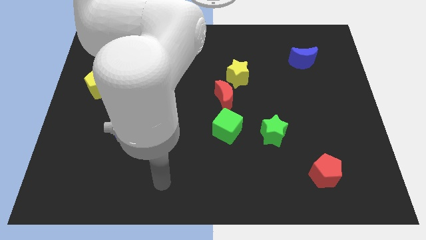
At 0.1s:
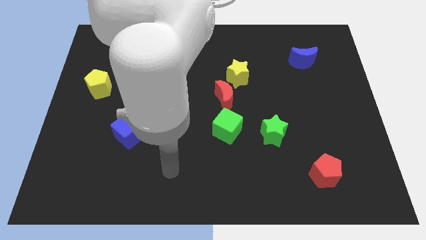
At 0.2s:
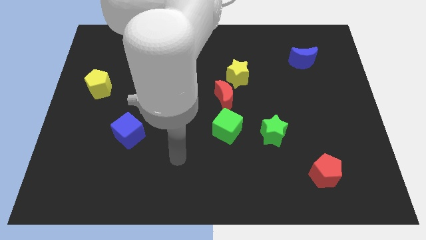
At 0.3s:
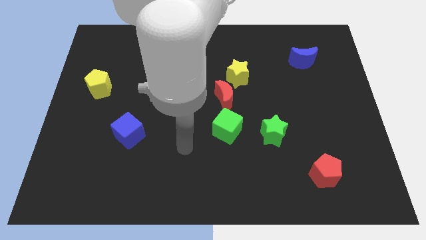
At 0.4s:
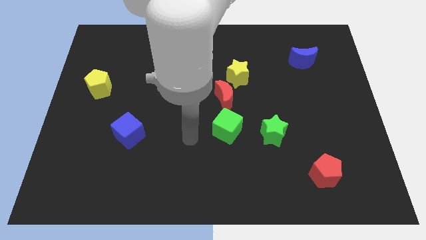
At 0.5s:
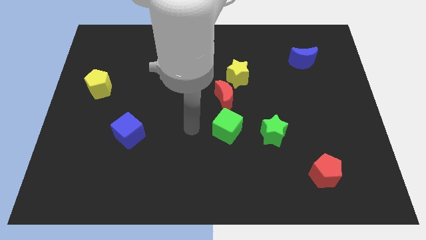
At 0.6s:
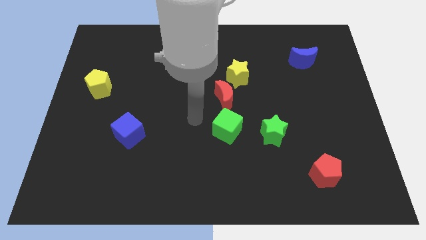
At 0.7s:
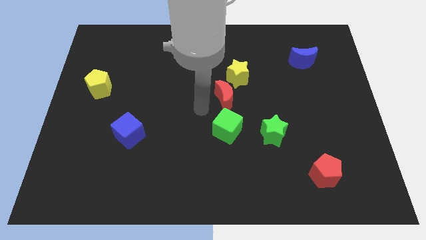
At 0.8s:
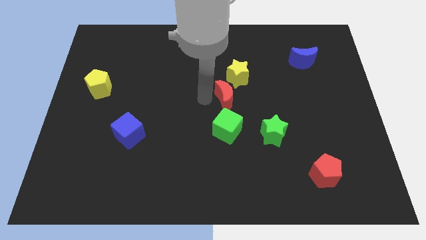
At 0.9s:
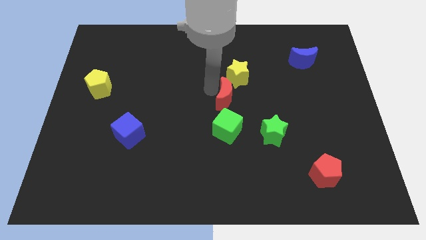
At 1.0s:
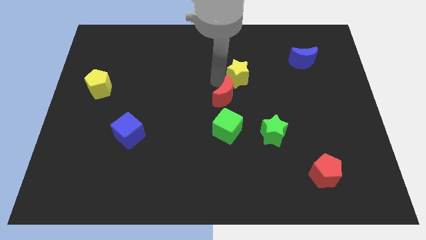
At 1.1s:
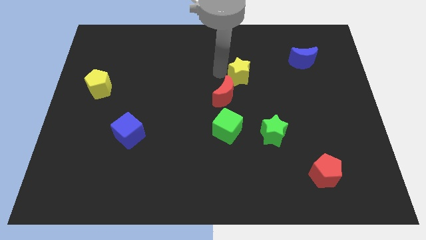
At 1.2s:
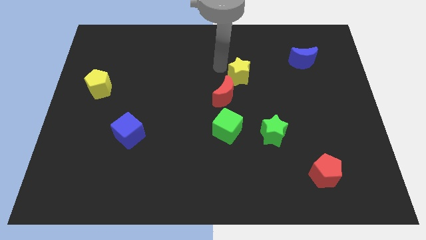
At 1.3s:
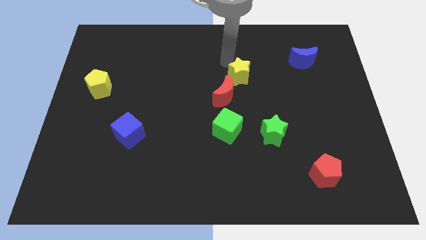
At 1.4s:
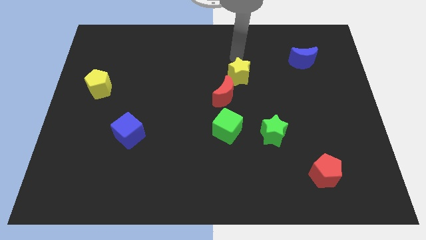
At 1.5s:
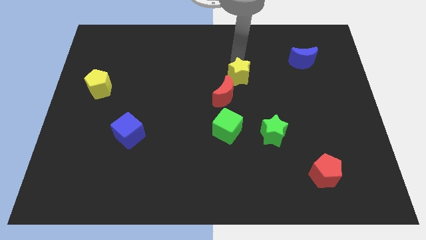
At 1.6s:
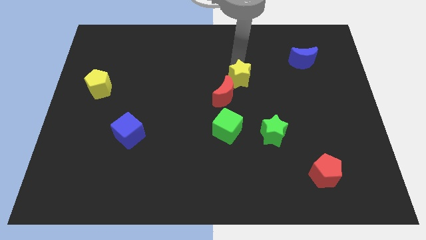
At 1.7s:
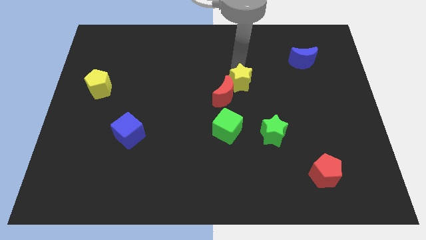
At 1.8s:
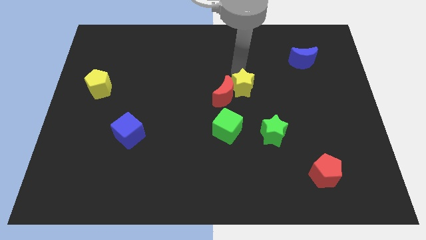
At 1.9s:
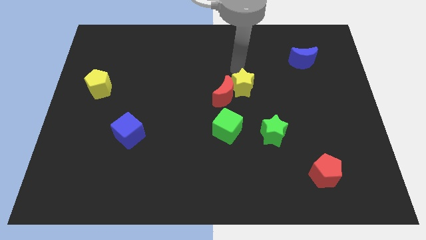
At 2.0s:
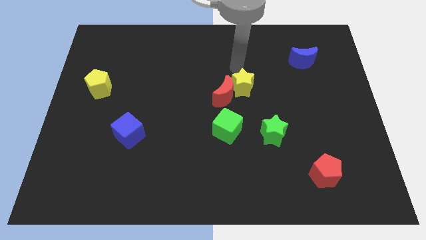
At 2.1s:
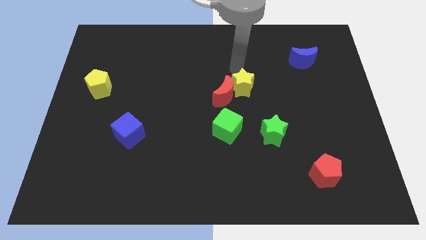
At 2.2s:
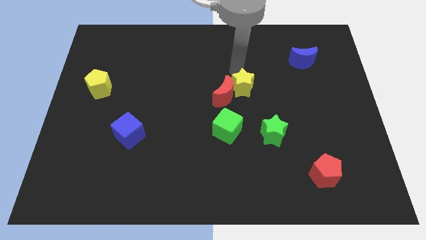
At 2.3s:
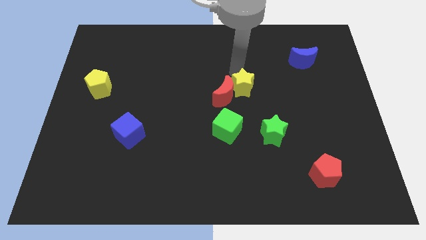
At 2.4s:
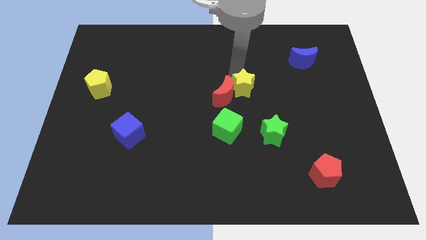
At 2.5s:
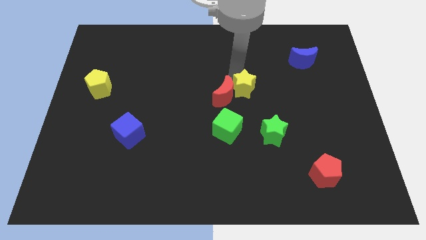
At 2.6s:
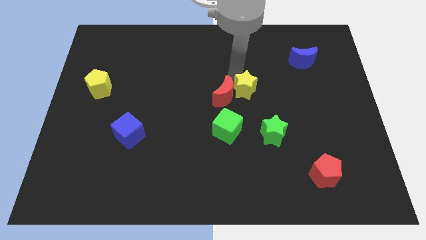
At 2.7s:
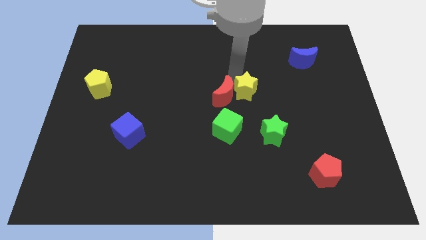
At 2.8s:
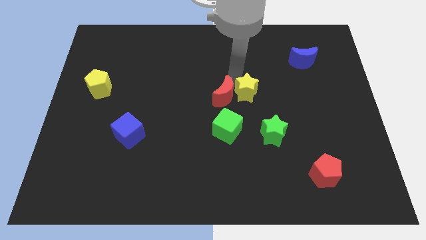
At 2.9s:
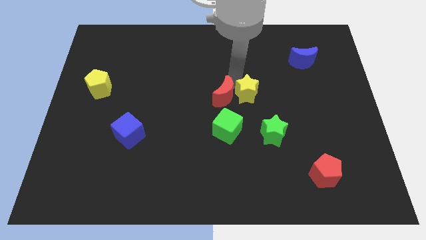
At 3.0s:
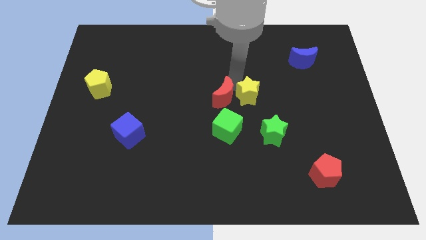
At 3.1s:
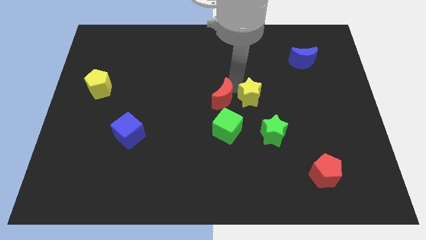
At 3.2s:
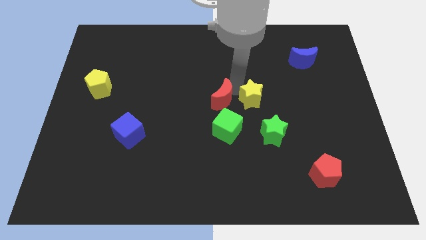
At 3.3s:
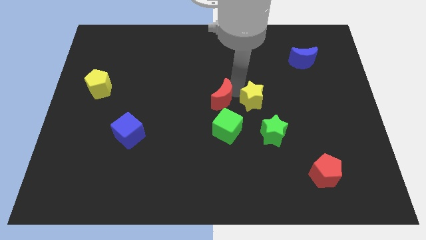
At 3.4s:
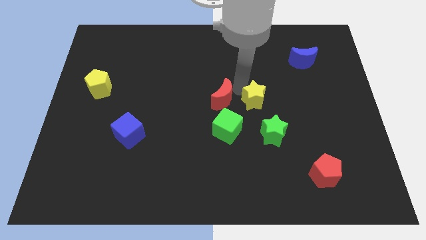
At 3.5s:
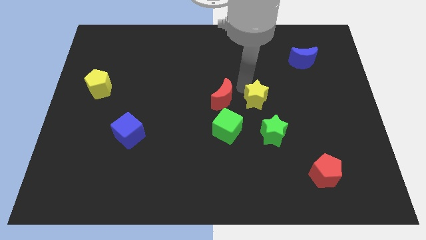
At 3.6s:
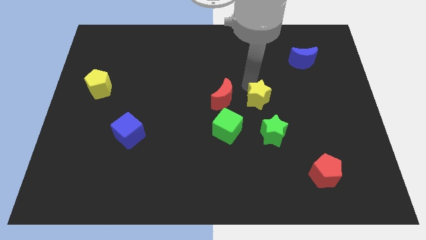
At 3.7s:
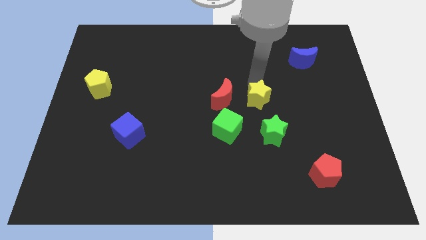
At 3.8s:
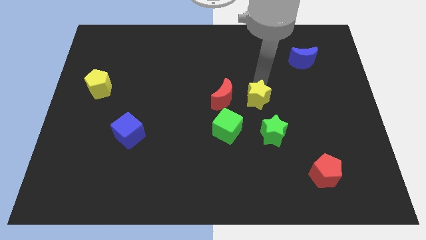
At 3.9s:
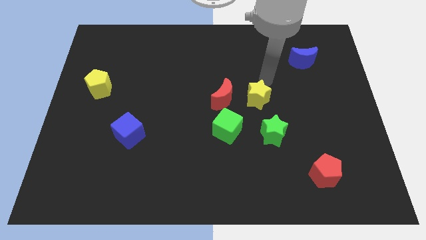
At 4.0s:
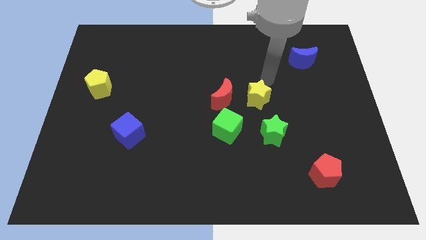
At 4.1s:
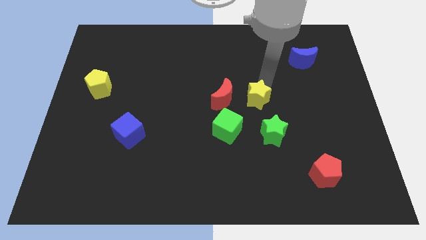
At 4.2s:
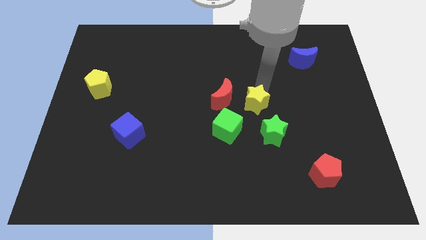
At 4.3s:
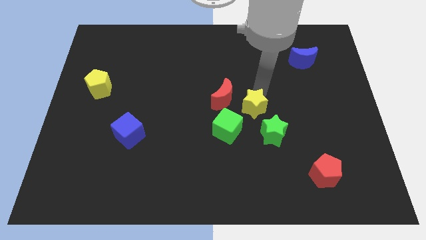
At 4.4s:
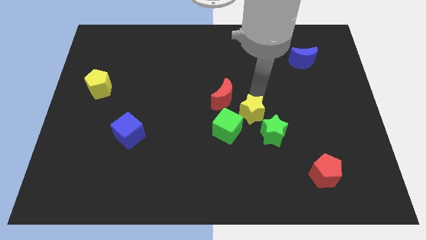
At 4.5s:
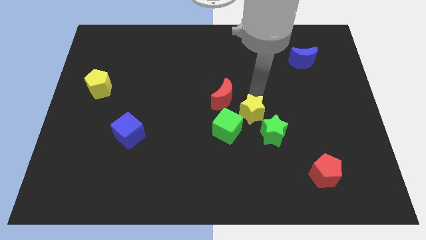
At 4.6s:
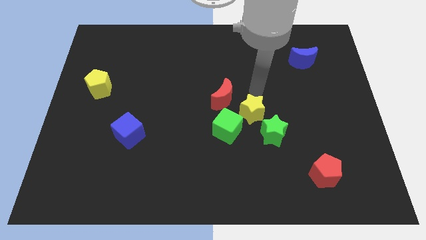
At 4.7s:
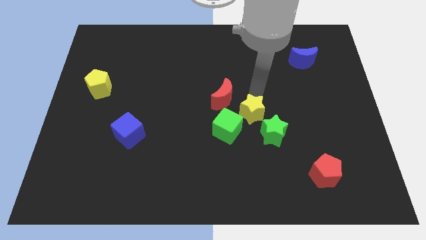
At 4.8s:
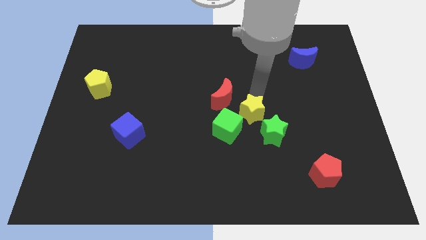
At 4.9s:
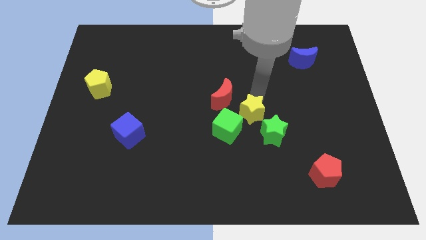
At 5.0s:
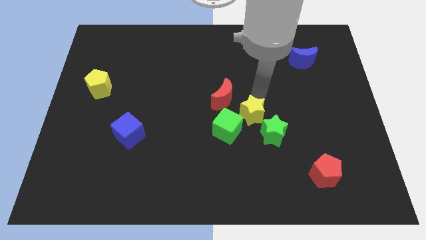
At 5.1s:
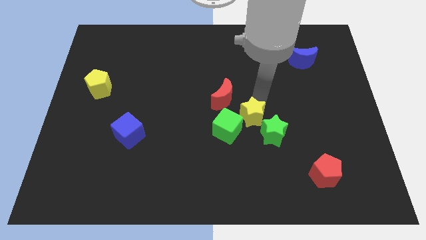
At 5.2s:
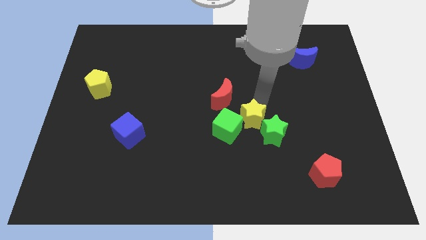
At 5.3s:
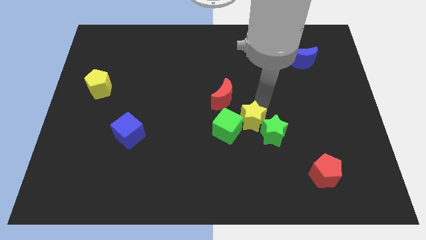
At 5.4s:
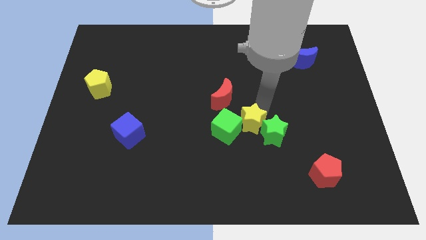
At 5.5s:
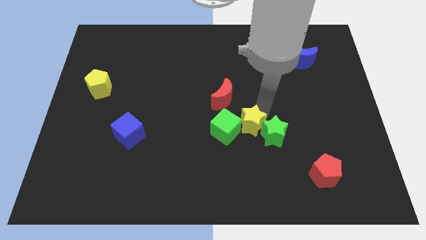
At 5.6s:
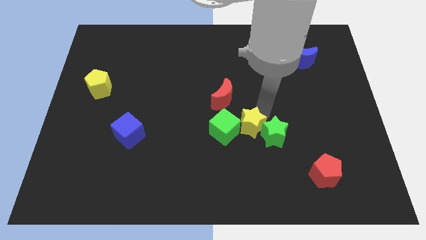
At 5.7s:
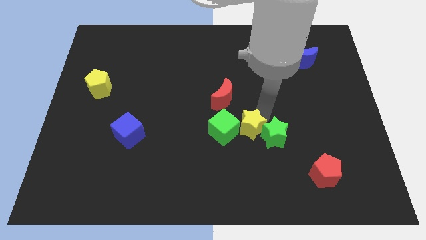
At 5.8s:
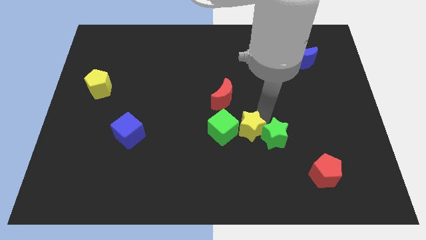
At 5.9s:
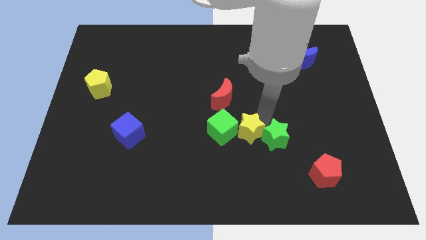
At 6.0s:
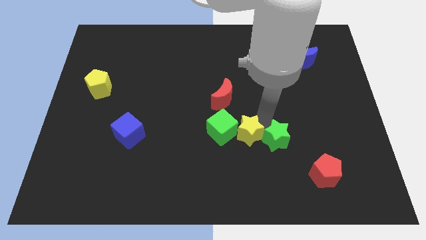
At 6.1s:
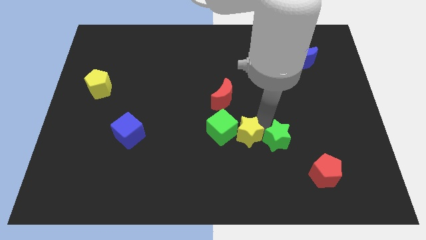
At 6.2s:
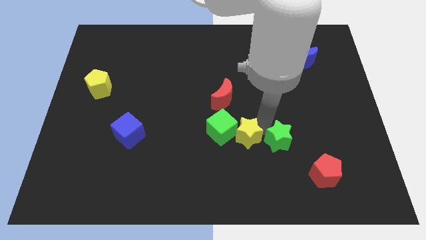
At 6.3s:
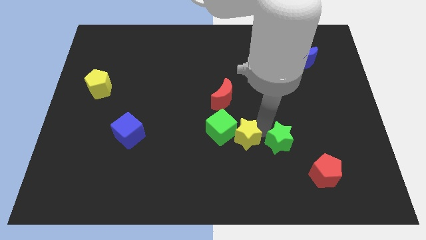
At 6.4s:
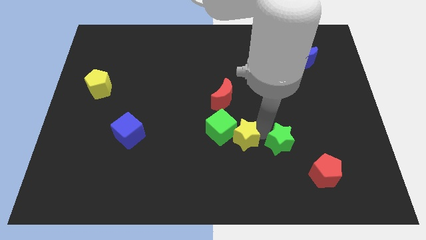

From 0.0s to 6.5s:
put the yellow star to the bottom of the red moon

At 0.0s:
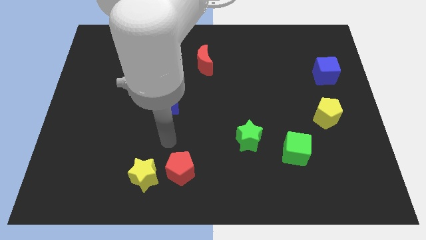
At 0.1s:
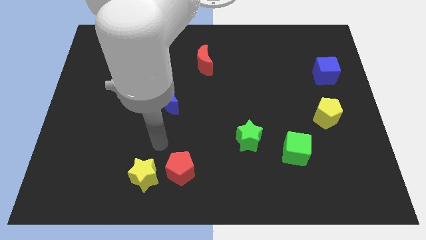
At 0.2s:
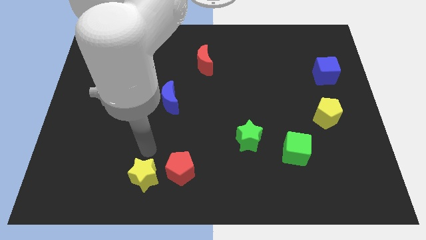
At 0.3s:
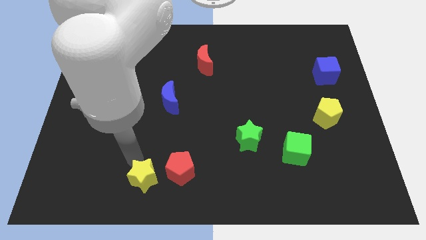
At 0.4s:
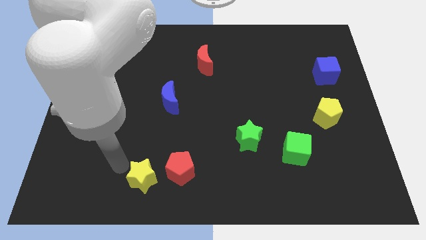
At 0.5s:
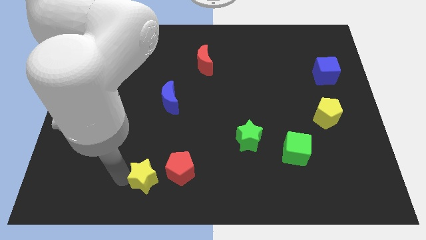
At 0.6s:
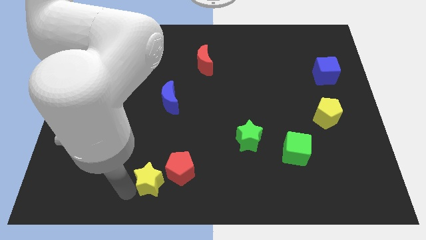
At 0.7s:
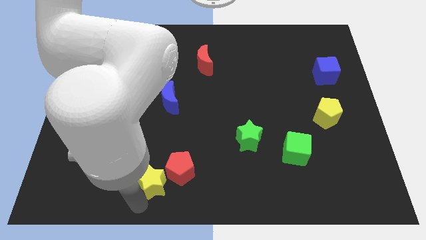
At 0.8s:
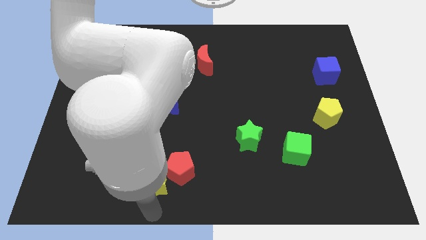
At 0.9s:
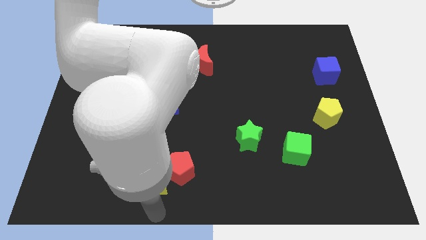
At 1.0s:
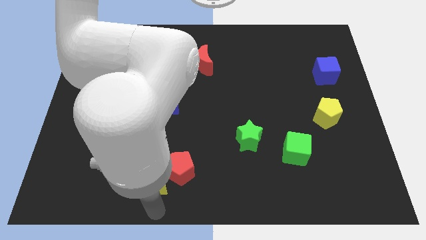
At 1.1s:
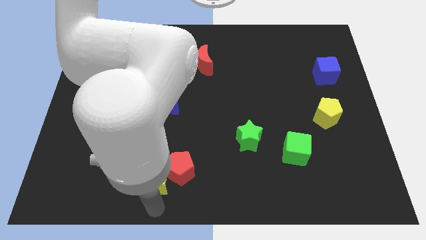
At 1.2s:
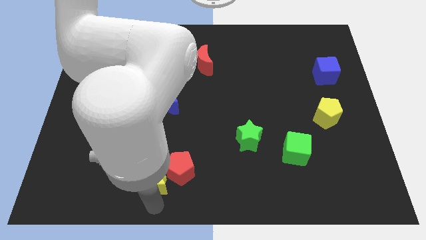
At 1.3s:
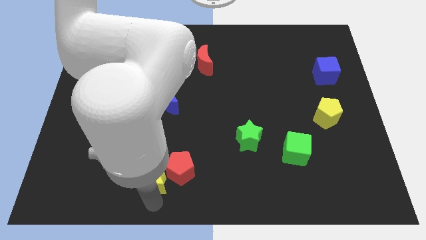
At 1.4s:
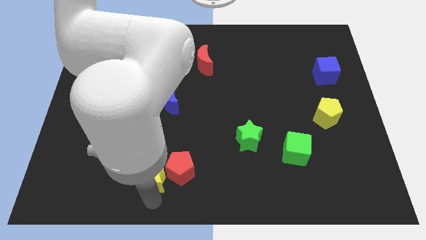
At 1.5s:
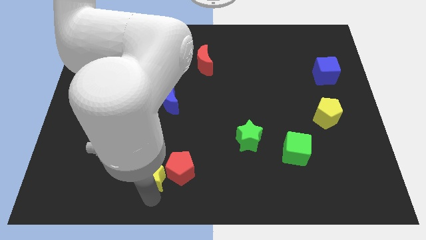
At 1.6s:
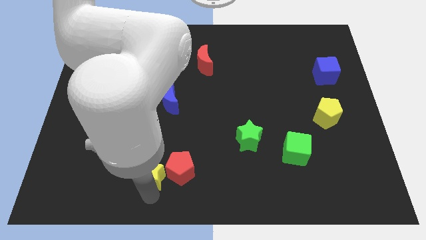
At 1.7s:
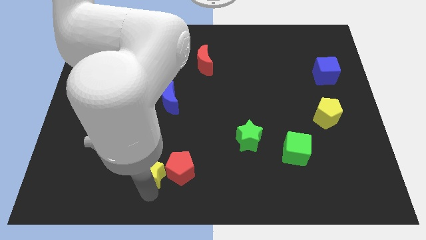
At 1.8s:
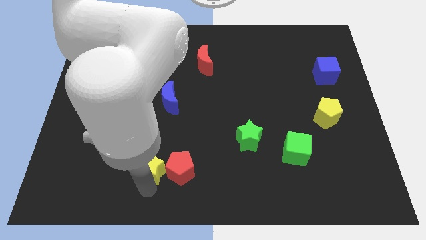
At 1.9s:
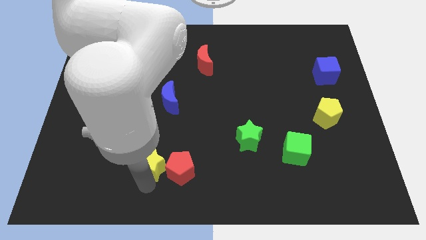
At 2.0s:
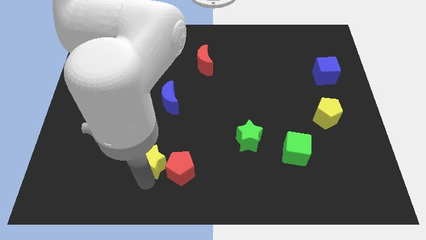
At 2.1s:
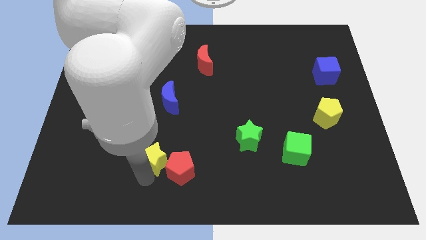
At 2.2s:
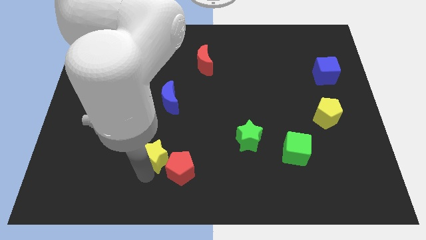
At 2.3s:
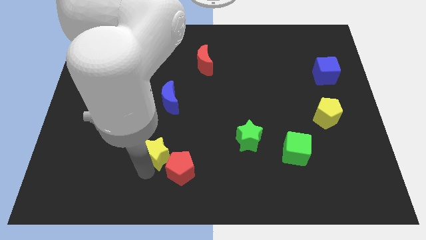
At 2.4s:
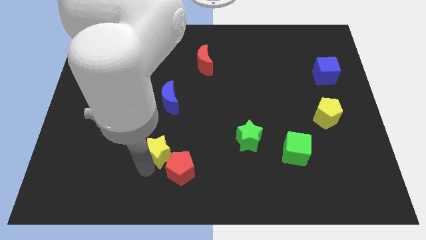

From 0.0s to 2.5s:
put the yellow star above the red pentagon
